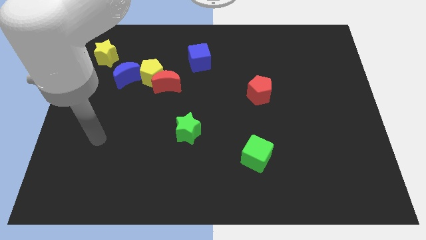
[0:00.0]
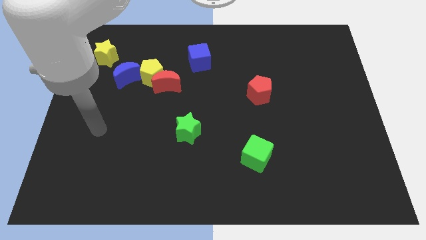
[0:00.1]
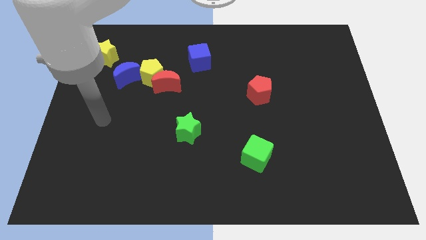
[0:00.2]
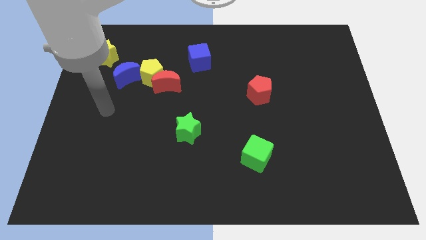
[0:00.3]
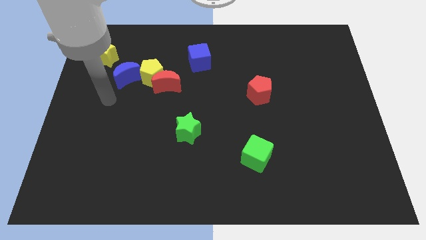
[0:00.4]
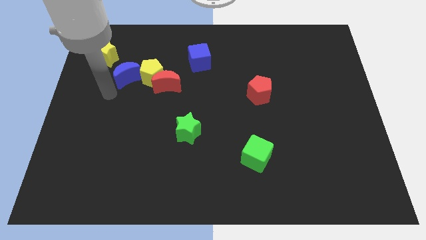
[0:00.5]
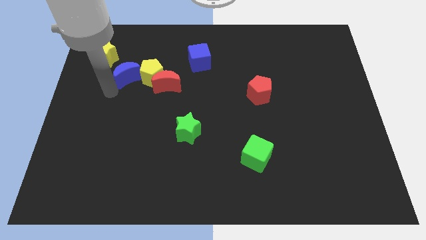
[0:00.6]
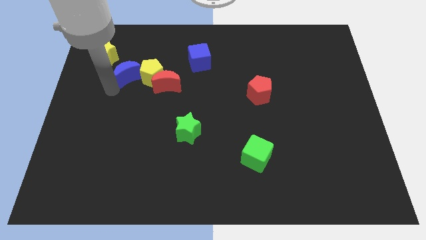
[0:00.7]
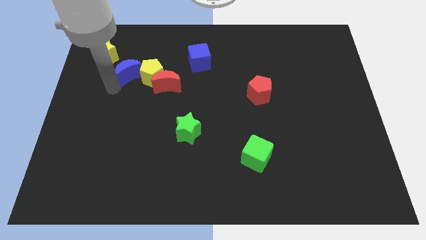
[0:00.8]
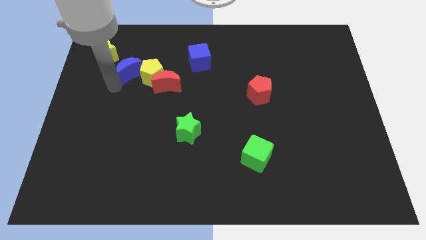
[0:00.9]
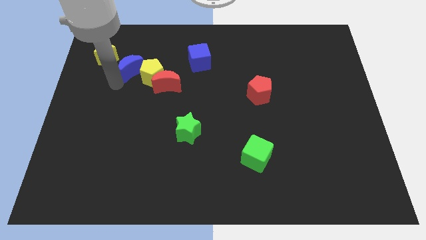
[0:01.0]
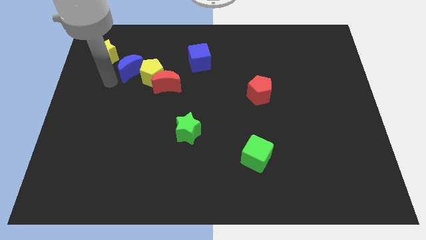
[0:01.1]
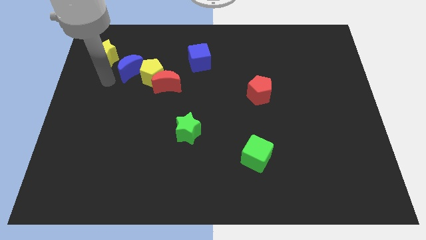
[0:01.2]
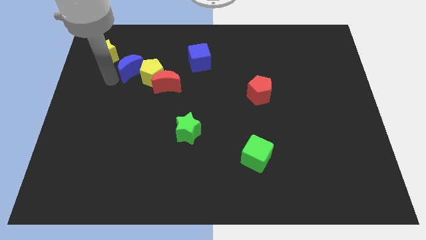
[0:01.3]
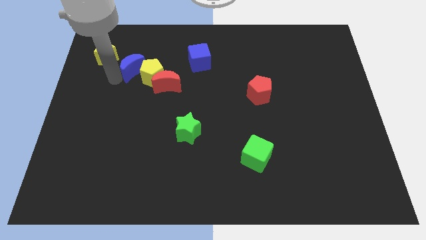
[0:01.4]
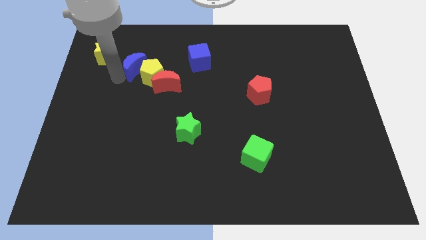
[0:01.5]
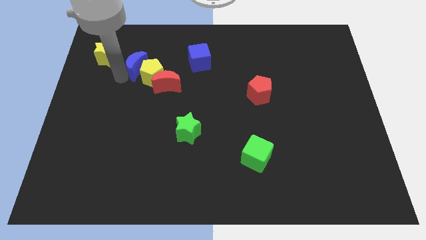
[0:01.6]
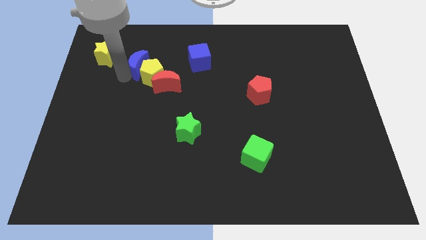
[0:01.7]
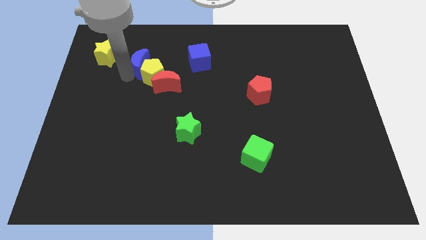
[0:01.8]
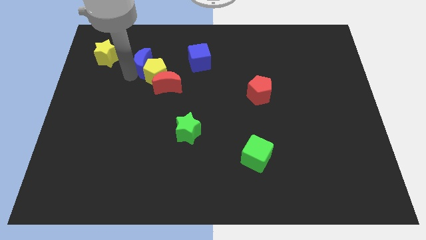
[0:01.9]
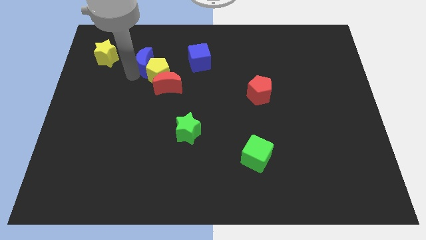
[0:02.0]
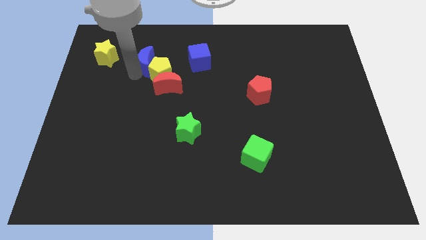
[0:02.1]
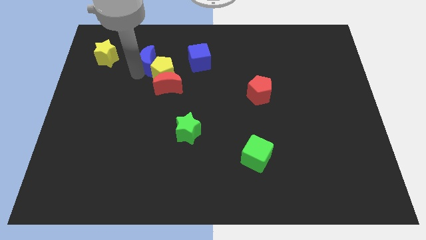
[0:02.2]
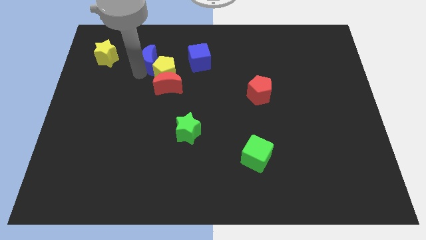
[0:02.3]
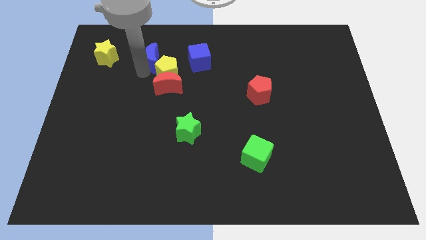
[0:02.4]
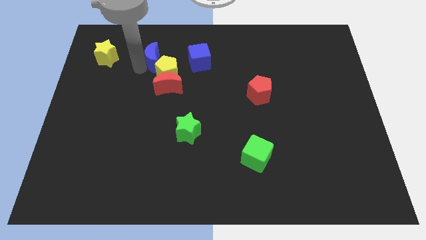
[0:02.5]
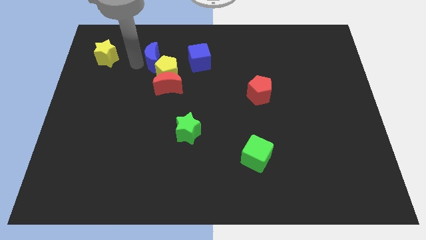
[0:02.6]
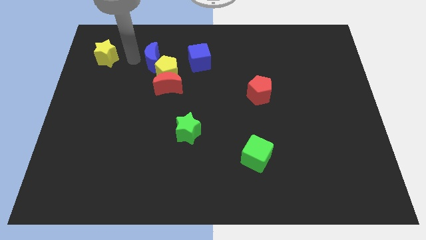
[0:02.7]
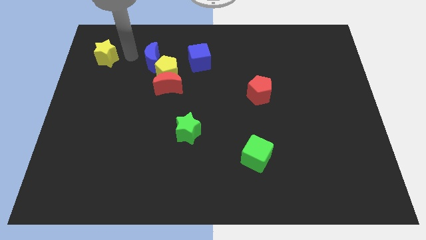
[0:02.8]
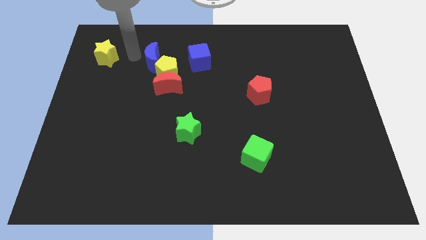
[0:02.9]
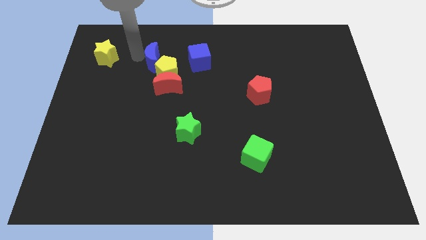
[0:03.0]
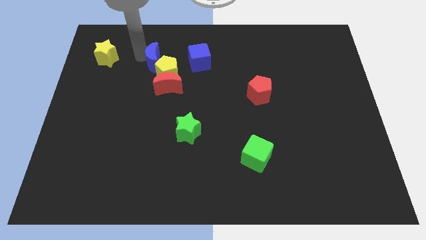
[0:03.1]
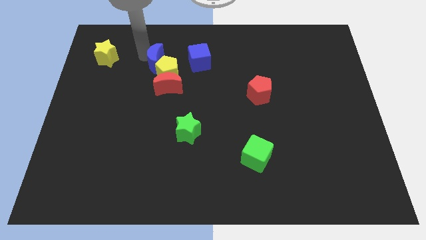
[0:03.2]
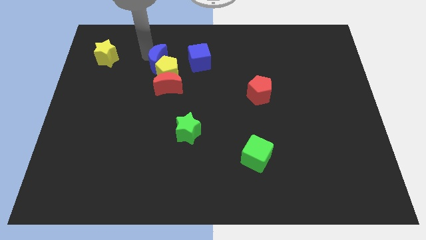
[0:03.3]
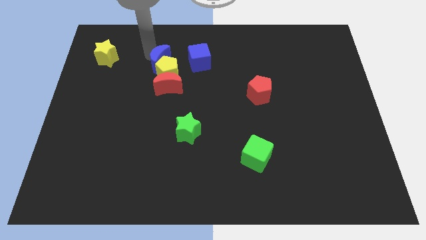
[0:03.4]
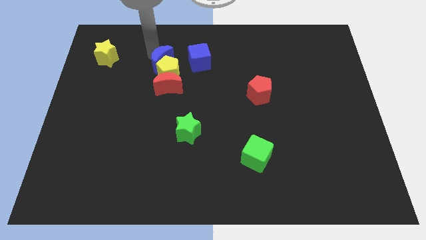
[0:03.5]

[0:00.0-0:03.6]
slightly move the blue moon right

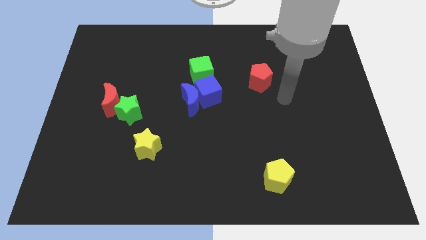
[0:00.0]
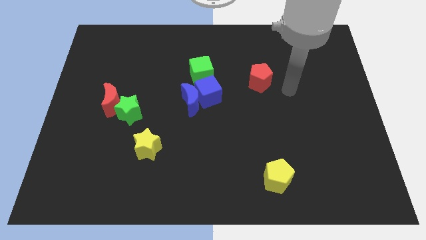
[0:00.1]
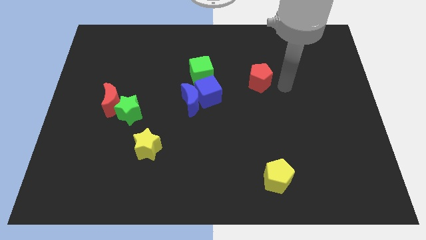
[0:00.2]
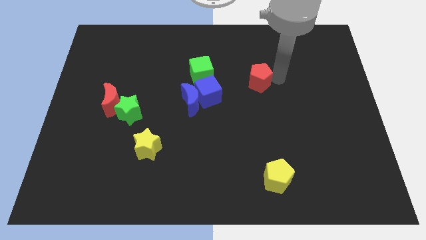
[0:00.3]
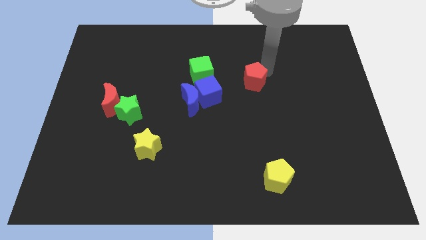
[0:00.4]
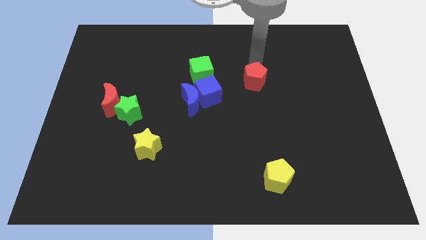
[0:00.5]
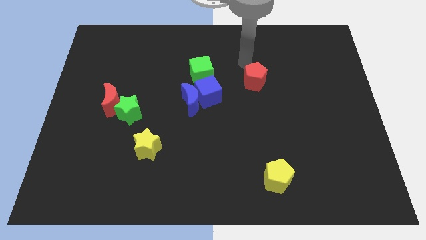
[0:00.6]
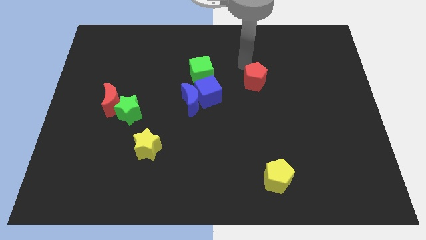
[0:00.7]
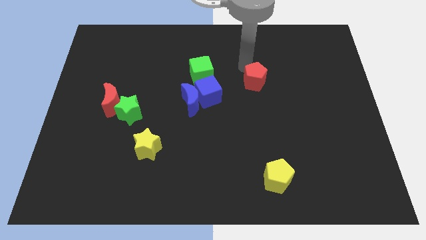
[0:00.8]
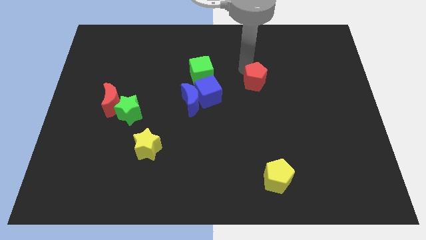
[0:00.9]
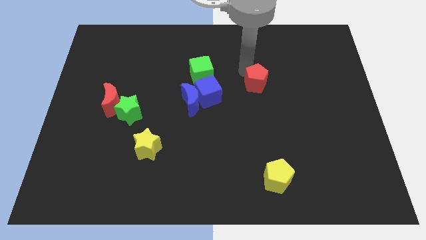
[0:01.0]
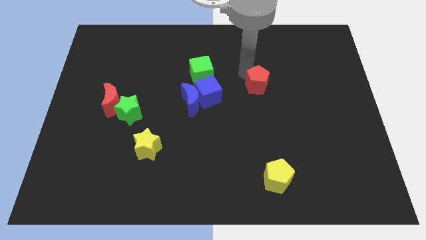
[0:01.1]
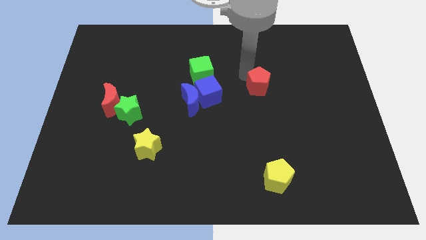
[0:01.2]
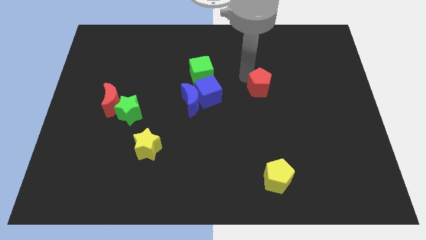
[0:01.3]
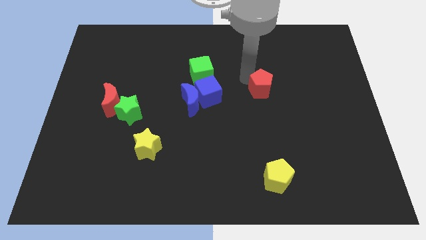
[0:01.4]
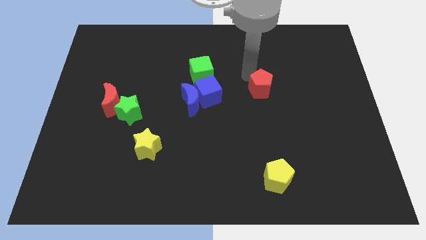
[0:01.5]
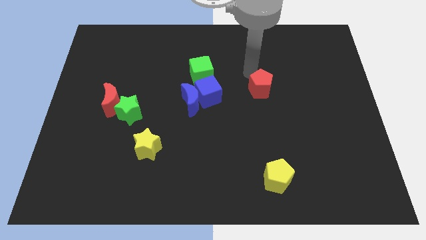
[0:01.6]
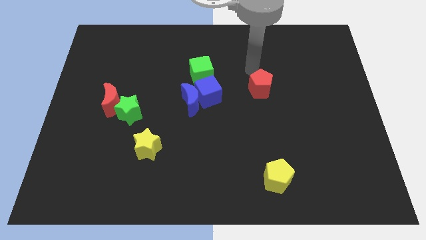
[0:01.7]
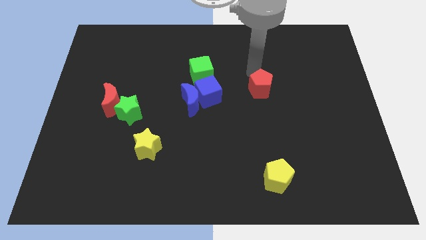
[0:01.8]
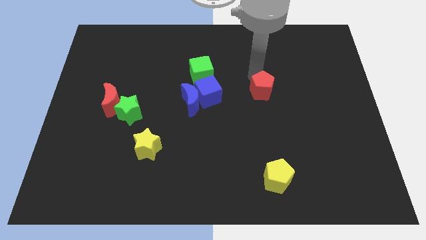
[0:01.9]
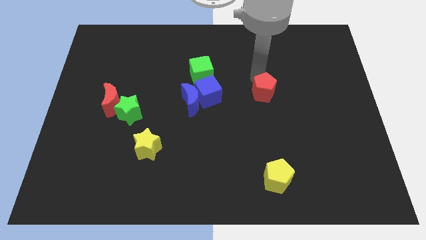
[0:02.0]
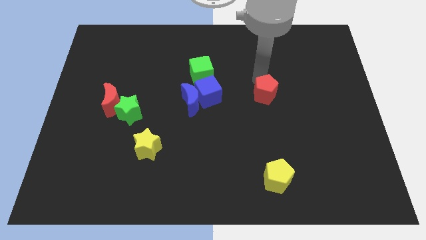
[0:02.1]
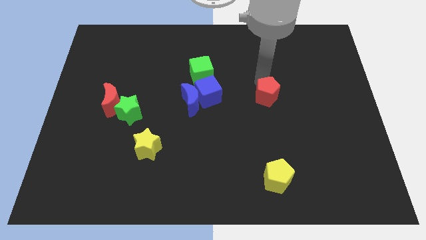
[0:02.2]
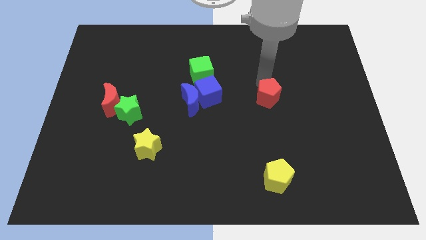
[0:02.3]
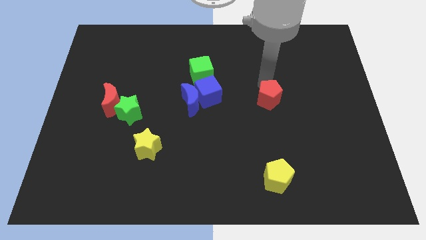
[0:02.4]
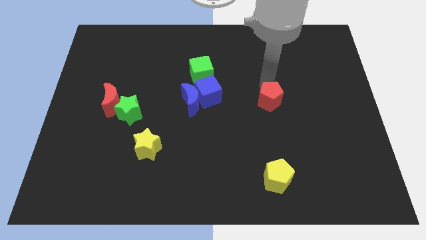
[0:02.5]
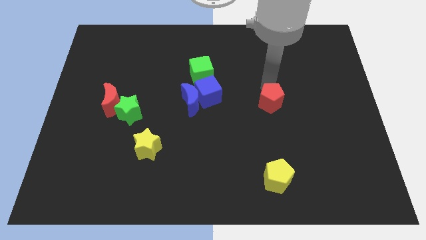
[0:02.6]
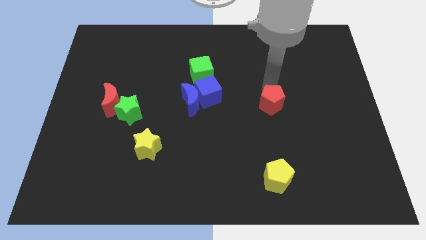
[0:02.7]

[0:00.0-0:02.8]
slightly push the red pentagon down

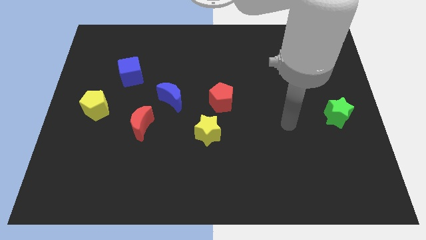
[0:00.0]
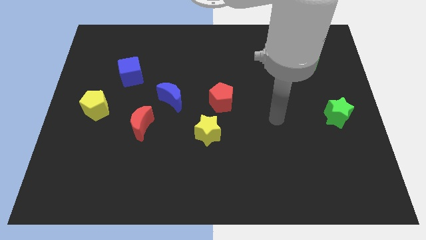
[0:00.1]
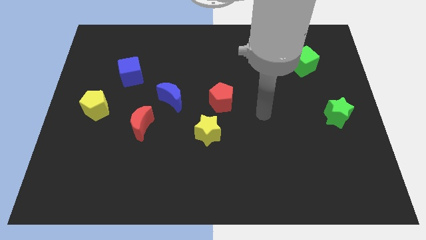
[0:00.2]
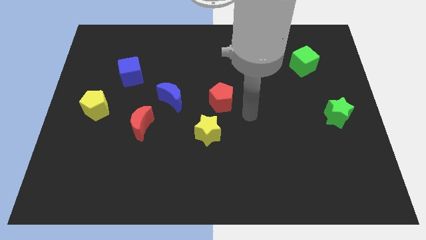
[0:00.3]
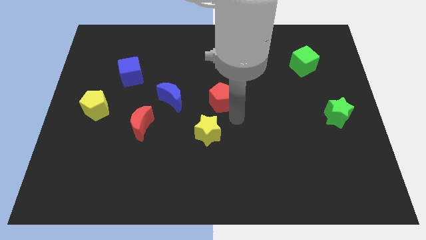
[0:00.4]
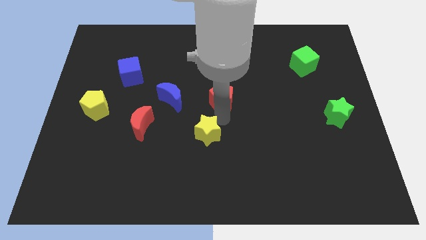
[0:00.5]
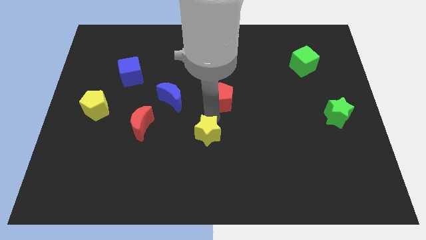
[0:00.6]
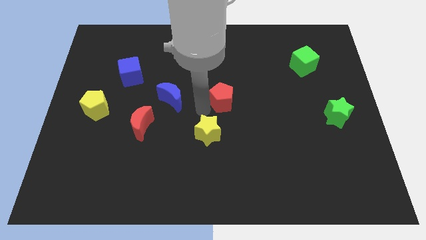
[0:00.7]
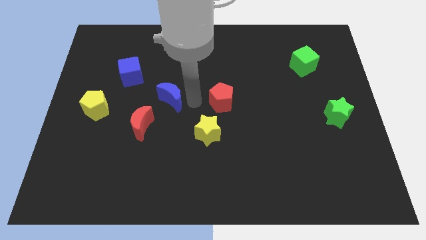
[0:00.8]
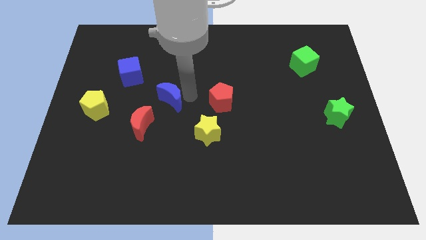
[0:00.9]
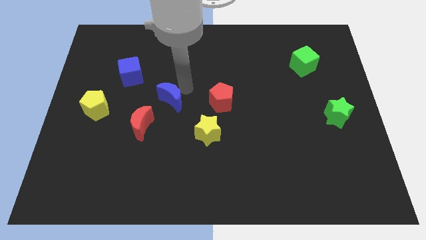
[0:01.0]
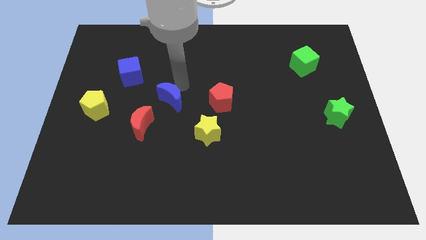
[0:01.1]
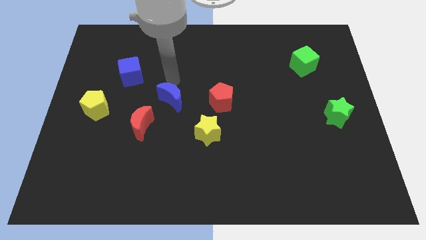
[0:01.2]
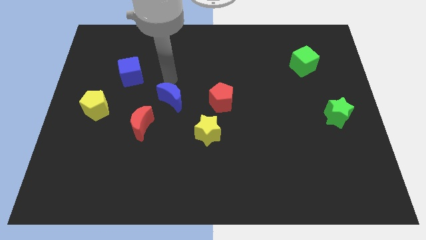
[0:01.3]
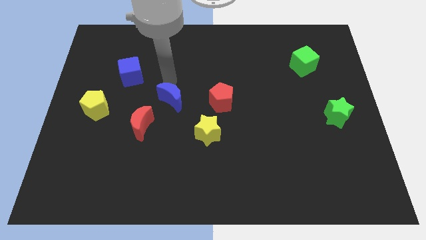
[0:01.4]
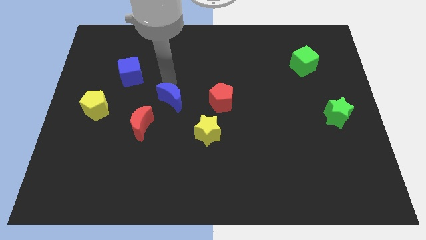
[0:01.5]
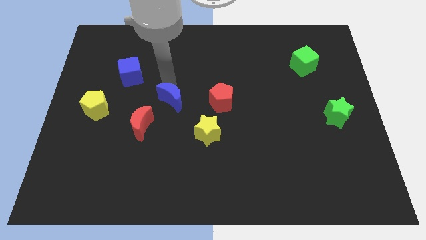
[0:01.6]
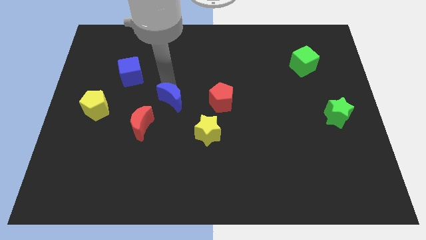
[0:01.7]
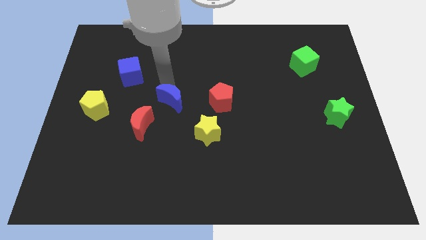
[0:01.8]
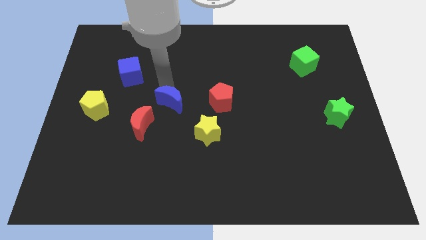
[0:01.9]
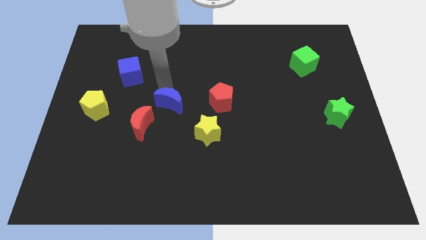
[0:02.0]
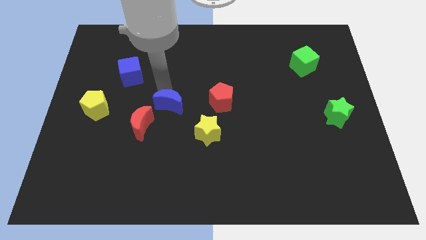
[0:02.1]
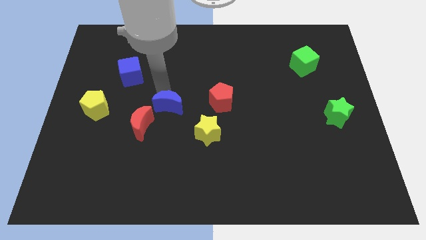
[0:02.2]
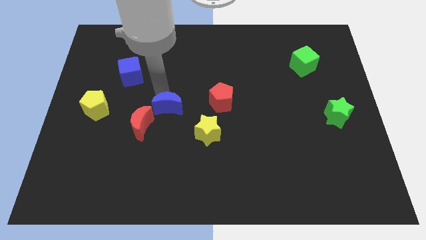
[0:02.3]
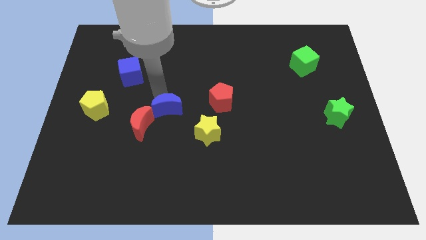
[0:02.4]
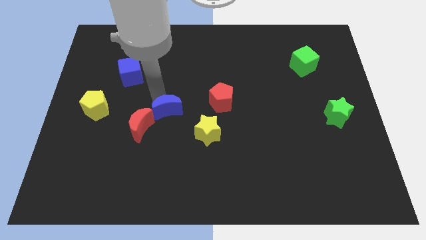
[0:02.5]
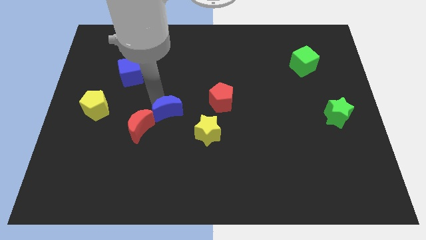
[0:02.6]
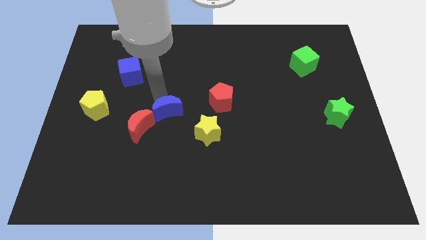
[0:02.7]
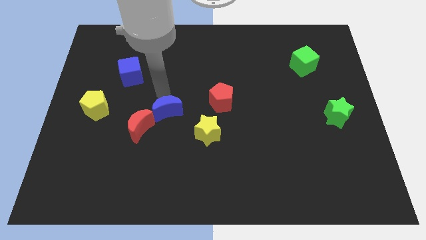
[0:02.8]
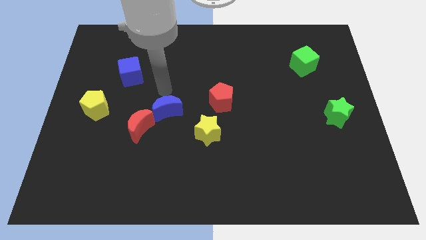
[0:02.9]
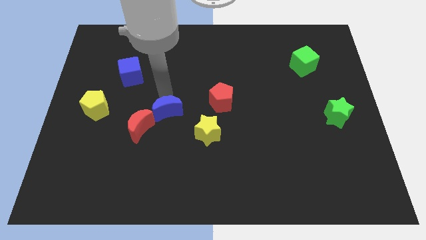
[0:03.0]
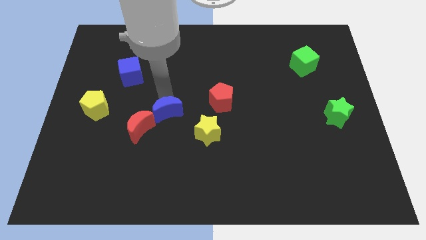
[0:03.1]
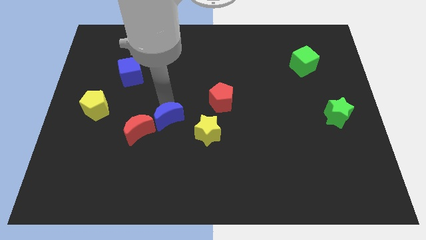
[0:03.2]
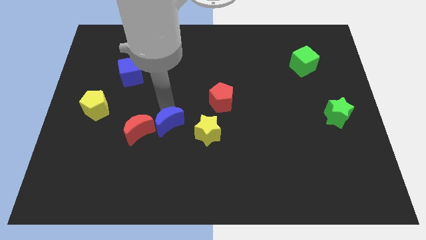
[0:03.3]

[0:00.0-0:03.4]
move the blue moon downwards a little bit
